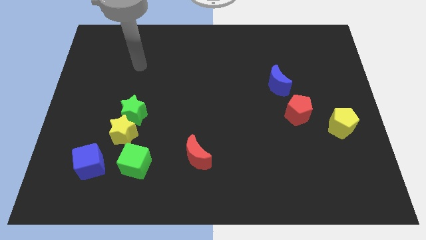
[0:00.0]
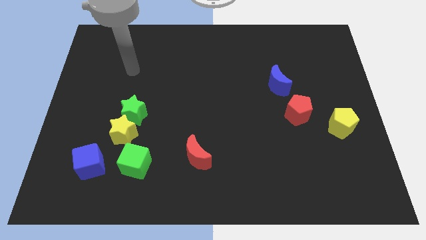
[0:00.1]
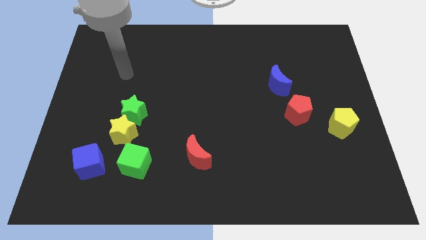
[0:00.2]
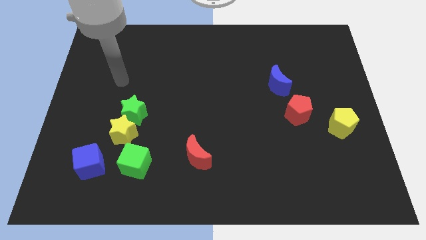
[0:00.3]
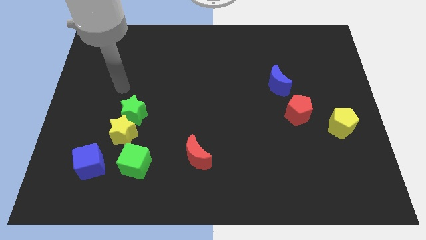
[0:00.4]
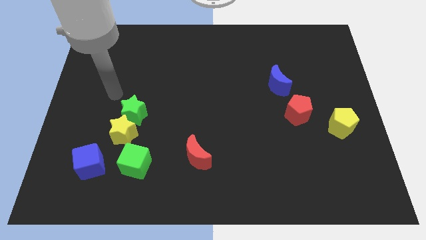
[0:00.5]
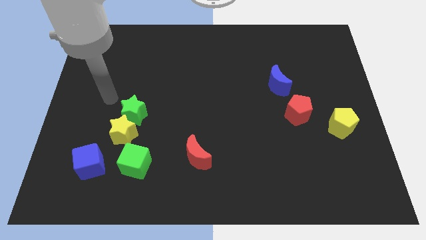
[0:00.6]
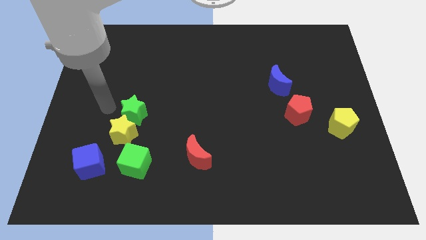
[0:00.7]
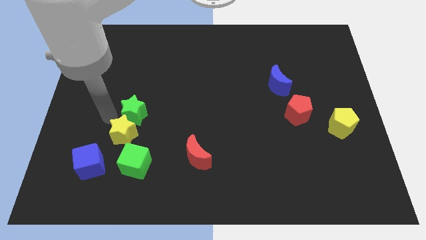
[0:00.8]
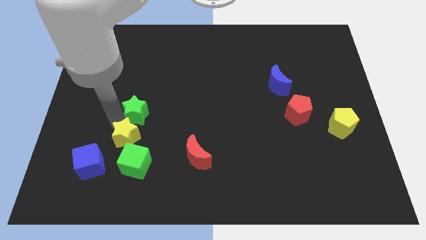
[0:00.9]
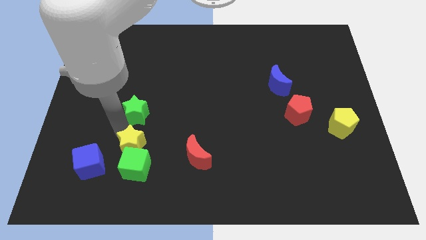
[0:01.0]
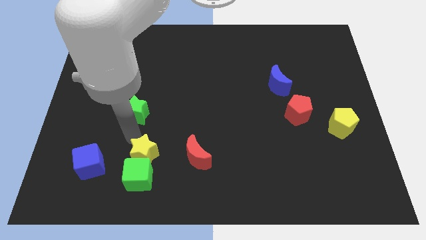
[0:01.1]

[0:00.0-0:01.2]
move the green star away from the yellow star

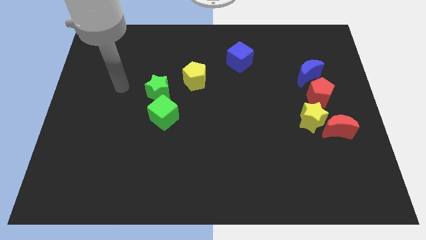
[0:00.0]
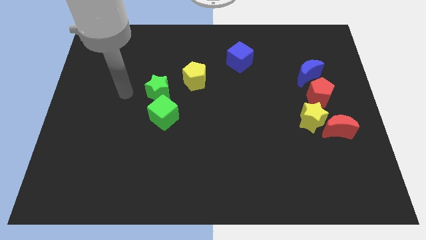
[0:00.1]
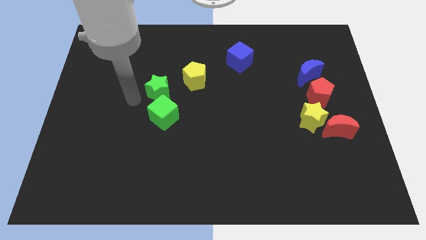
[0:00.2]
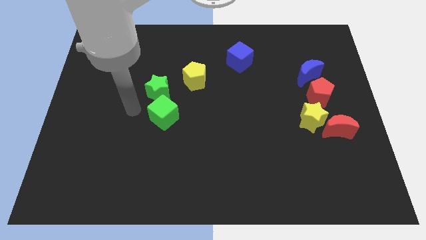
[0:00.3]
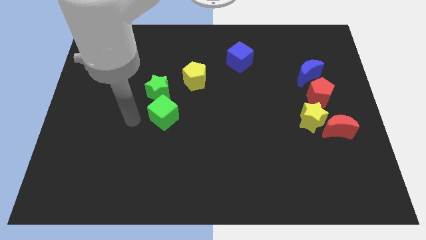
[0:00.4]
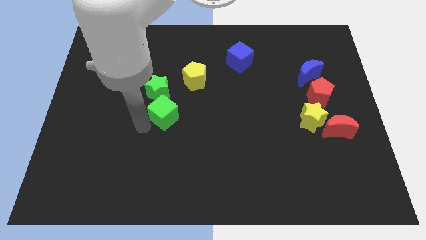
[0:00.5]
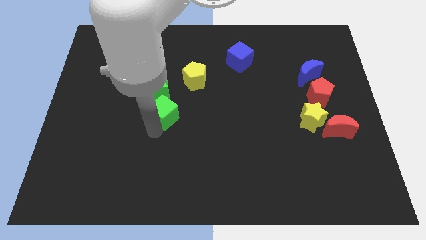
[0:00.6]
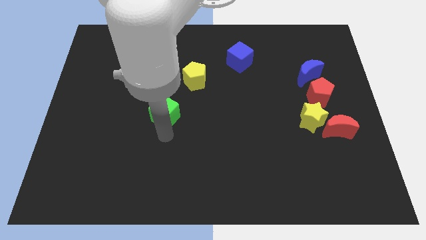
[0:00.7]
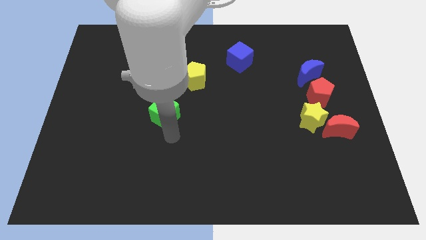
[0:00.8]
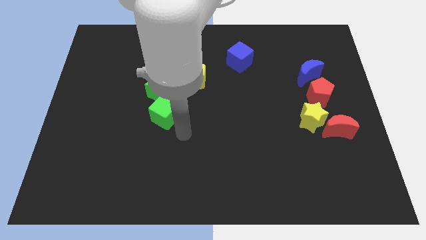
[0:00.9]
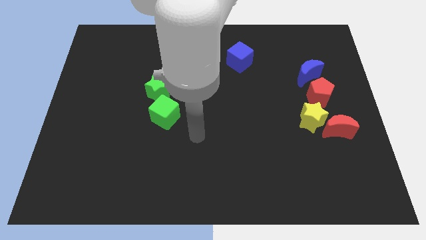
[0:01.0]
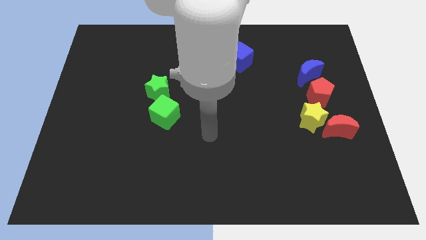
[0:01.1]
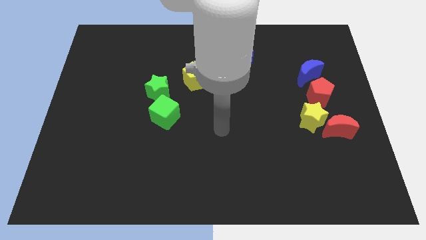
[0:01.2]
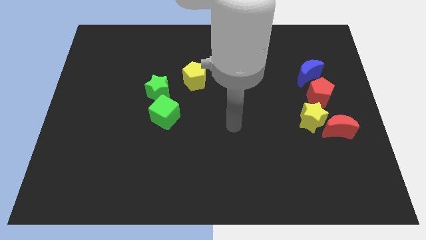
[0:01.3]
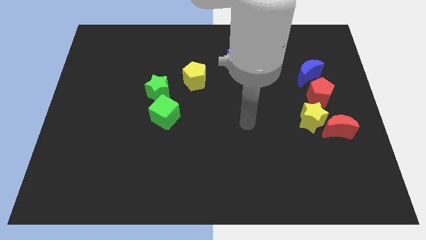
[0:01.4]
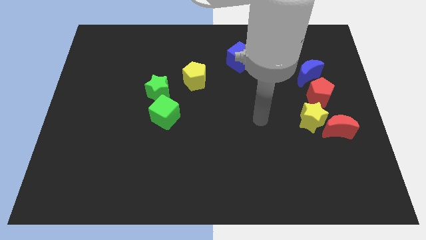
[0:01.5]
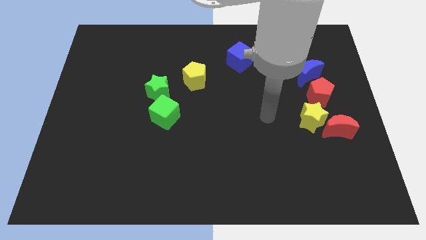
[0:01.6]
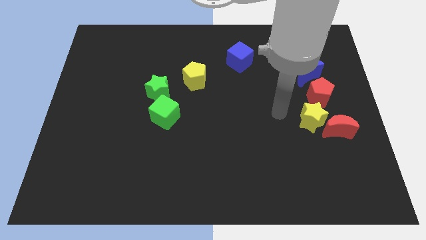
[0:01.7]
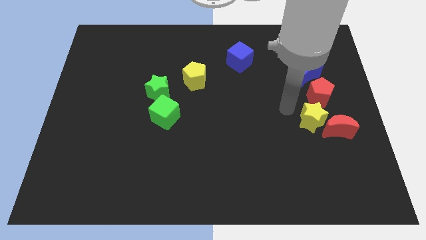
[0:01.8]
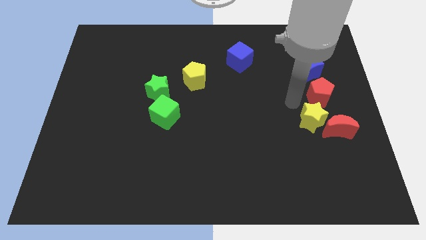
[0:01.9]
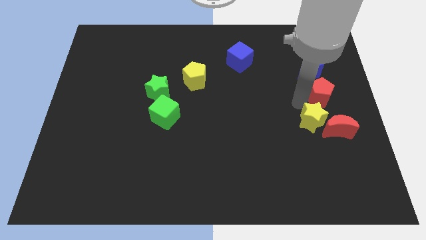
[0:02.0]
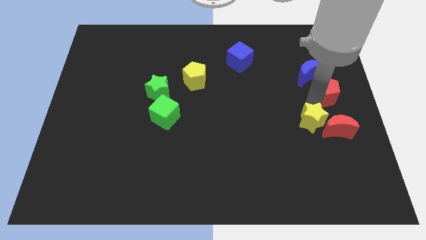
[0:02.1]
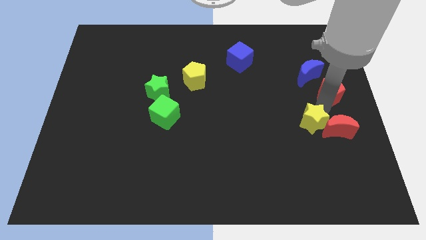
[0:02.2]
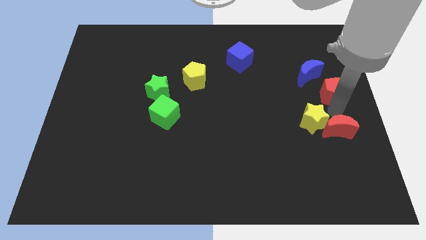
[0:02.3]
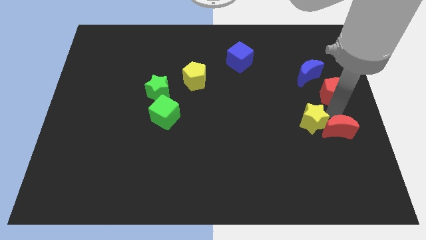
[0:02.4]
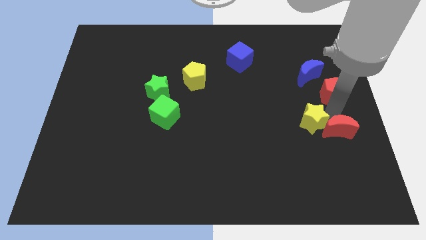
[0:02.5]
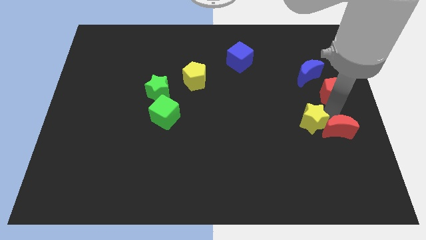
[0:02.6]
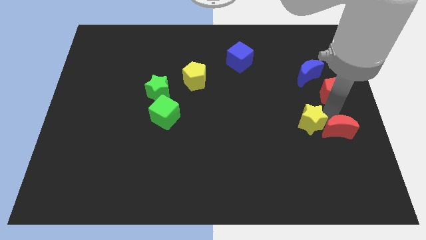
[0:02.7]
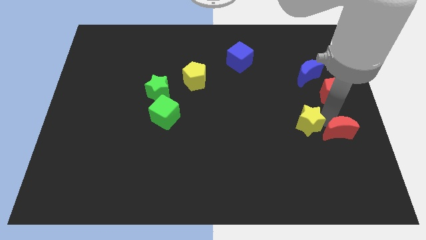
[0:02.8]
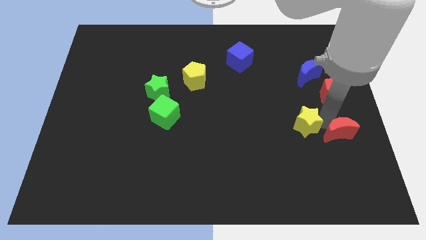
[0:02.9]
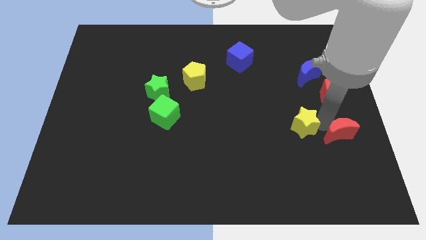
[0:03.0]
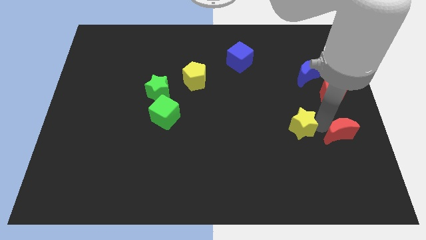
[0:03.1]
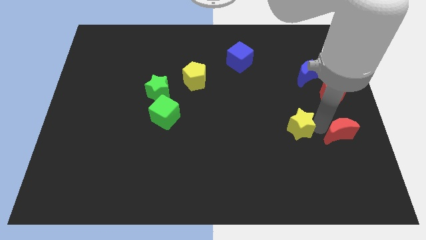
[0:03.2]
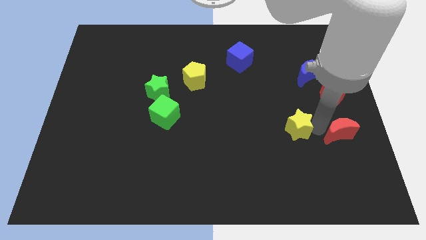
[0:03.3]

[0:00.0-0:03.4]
move the yellow star away from the red moon and red pentagon

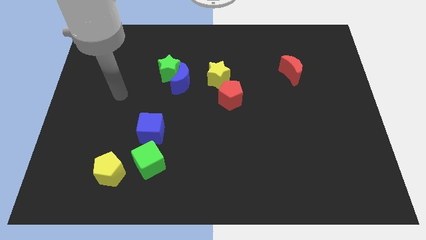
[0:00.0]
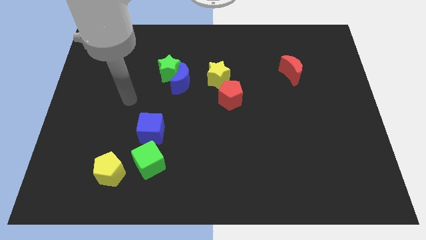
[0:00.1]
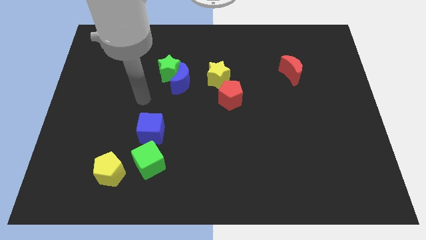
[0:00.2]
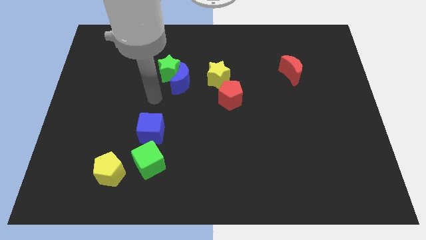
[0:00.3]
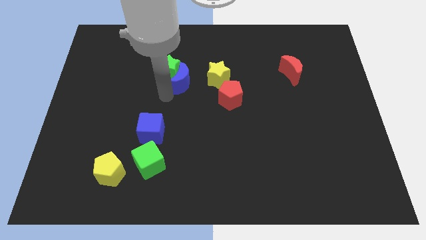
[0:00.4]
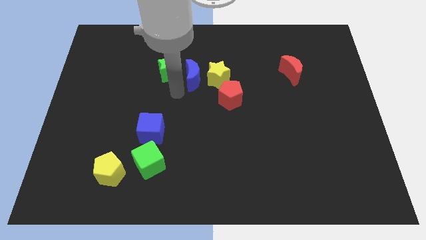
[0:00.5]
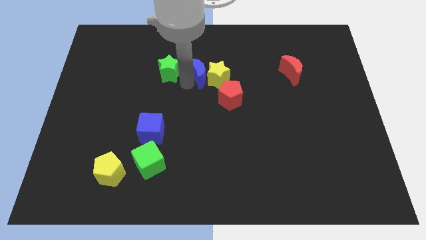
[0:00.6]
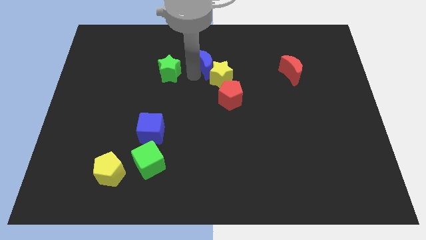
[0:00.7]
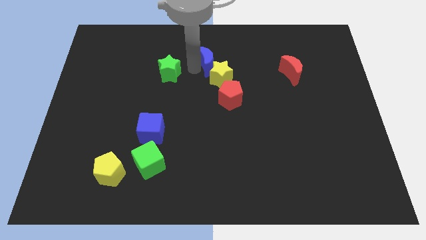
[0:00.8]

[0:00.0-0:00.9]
pull the green star apart from the blue moon

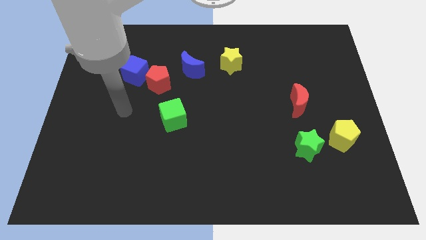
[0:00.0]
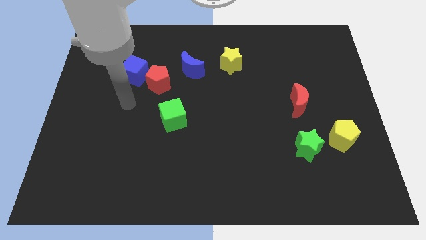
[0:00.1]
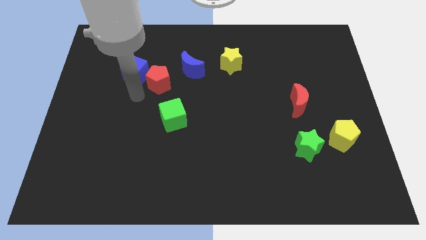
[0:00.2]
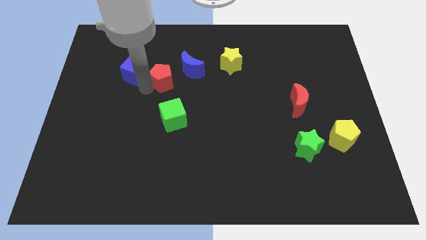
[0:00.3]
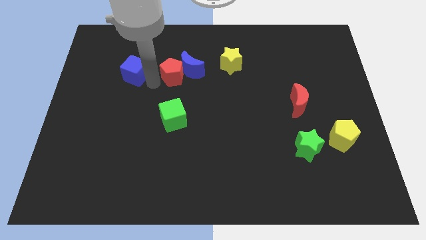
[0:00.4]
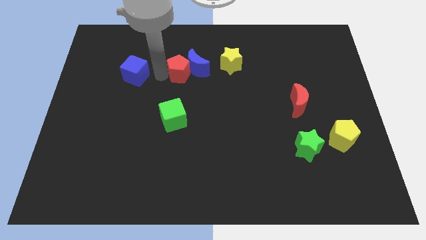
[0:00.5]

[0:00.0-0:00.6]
separate the blue cube from the red pentagon

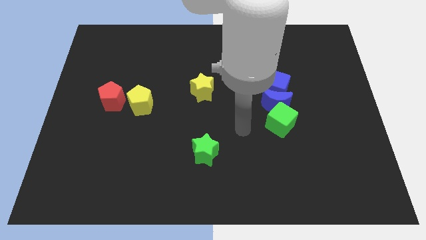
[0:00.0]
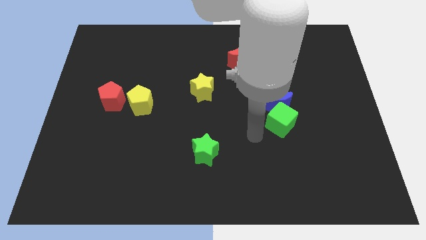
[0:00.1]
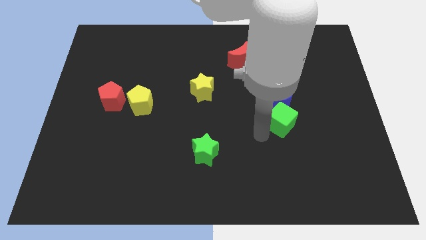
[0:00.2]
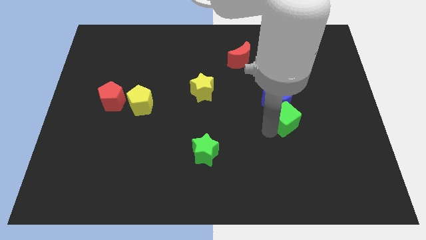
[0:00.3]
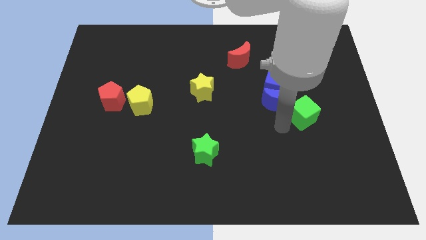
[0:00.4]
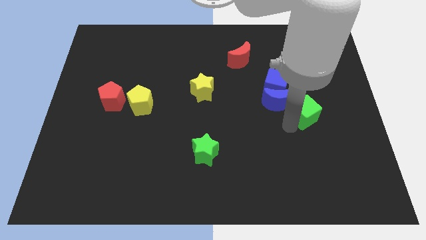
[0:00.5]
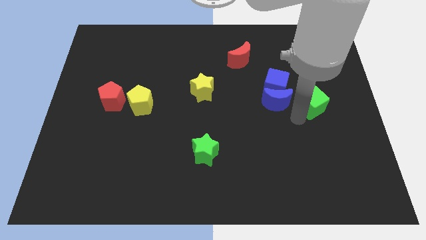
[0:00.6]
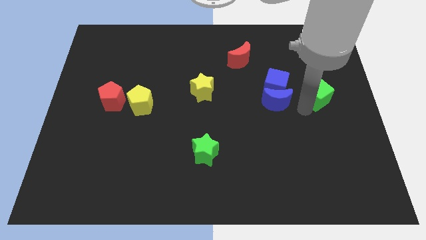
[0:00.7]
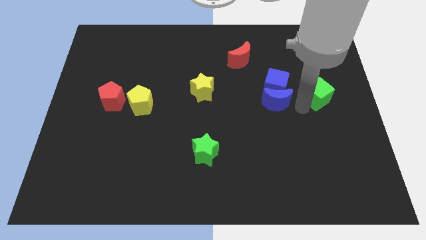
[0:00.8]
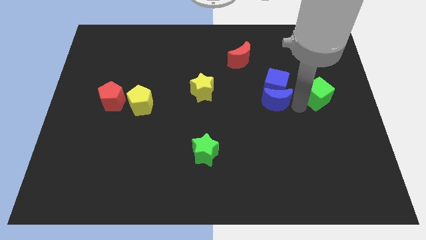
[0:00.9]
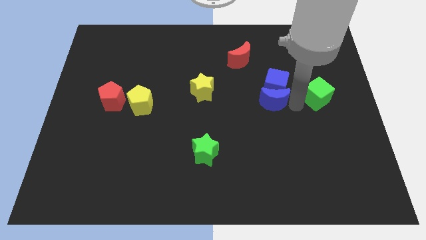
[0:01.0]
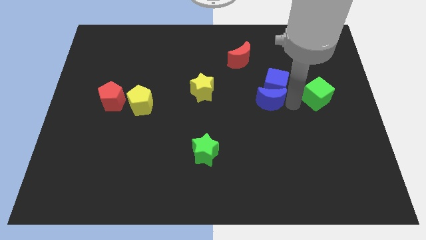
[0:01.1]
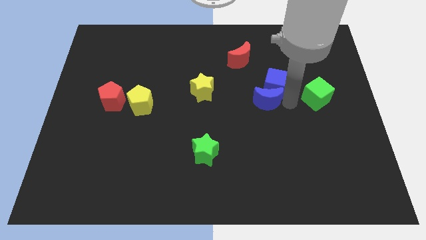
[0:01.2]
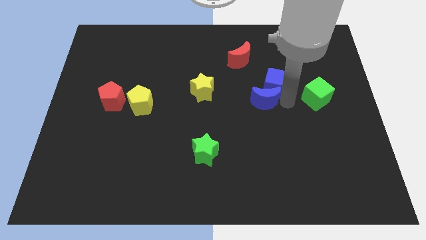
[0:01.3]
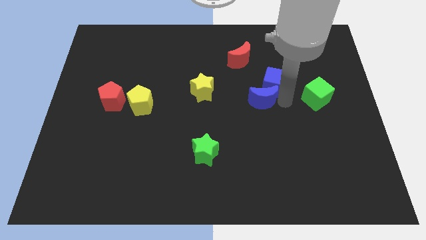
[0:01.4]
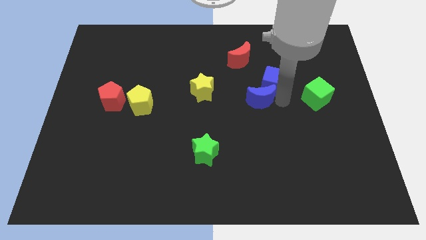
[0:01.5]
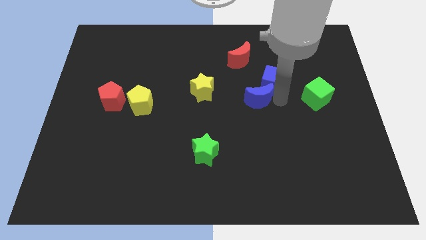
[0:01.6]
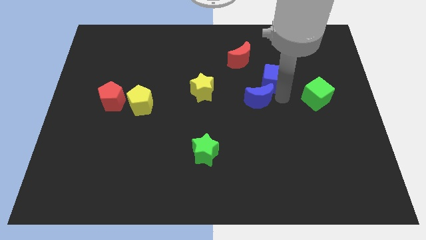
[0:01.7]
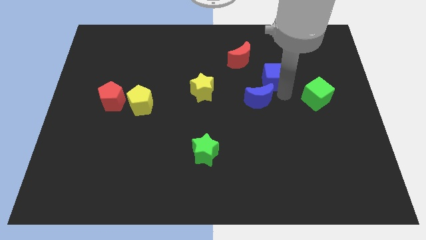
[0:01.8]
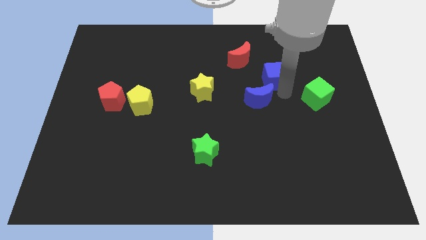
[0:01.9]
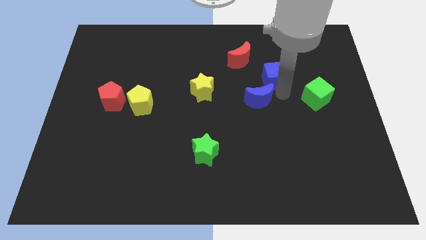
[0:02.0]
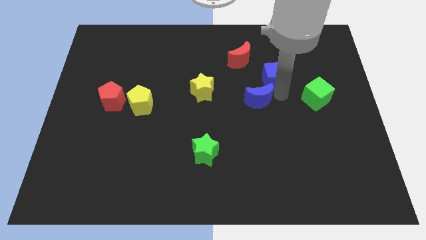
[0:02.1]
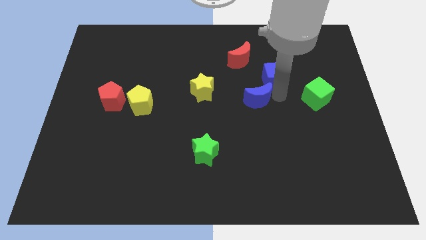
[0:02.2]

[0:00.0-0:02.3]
pull the blue moon apart from the blue cube and green cube

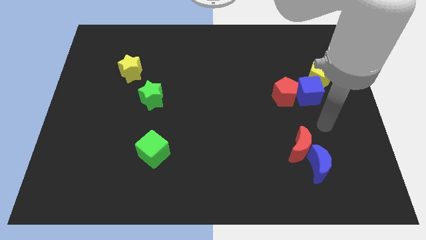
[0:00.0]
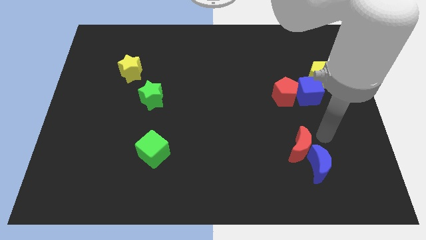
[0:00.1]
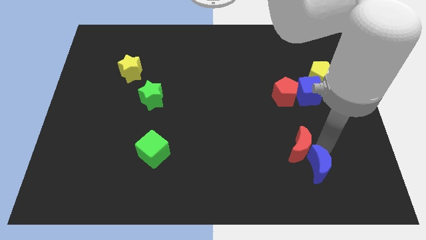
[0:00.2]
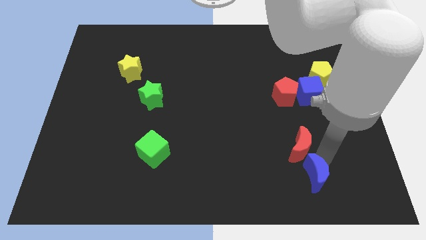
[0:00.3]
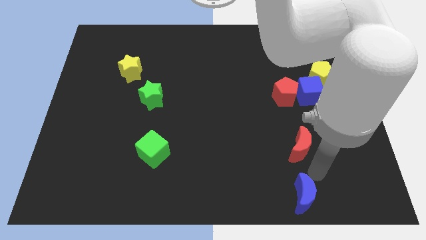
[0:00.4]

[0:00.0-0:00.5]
move the red moon away from the blue moon

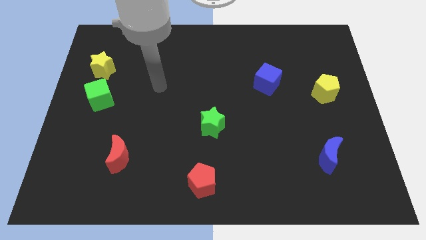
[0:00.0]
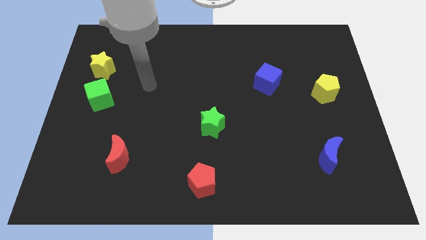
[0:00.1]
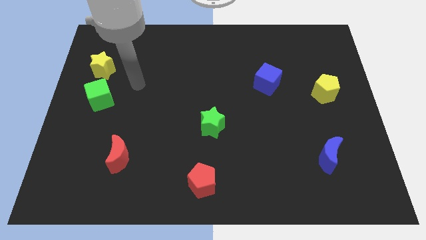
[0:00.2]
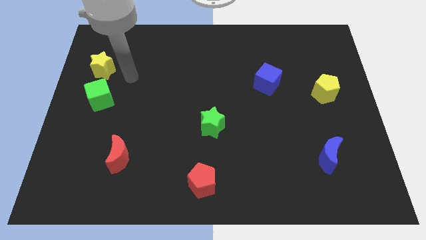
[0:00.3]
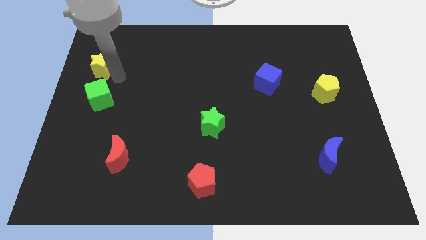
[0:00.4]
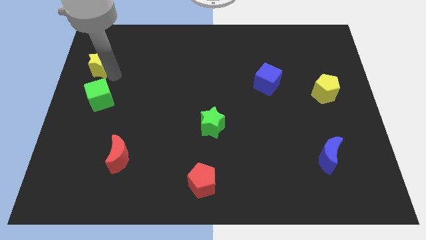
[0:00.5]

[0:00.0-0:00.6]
separate the green cube from the yellow star
